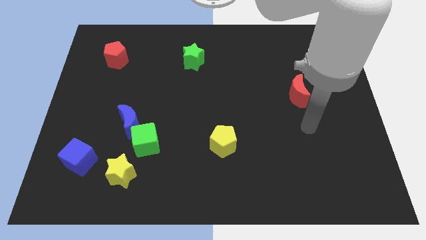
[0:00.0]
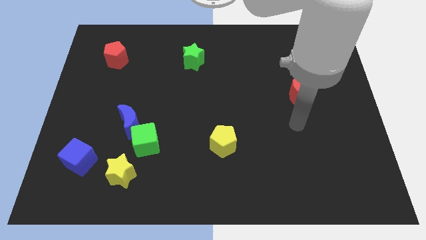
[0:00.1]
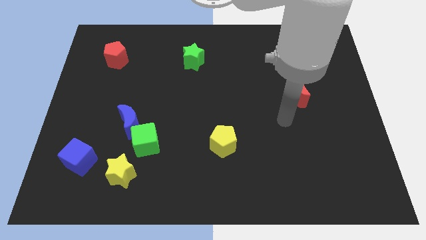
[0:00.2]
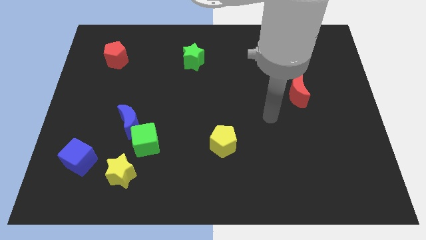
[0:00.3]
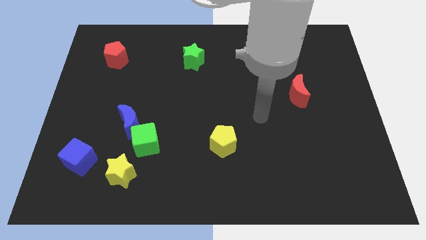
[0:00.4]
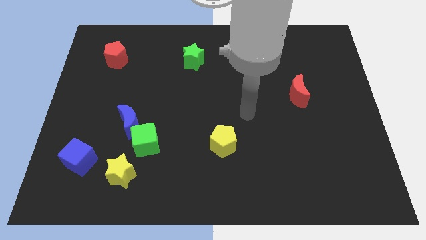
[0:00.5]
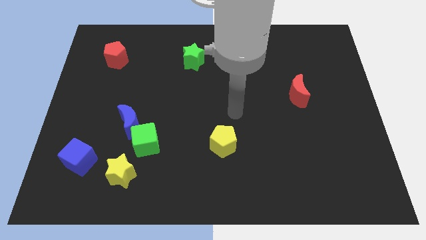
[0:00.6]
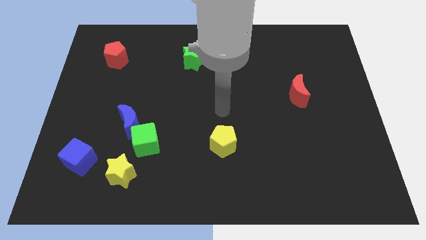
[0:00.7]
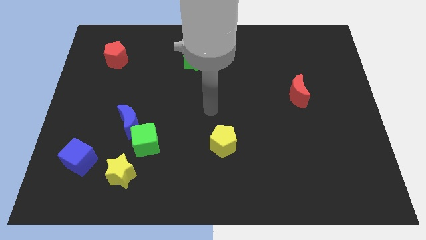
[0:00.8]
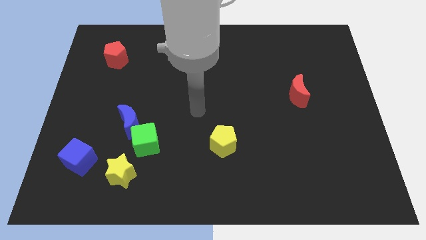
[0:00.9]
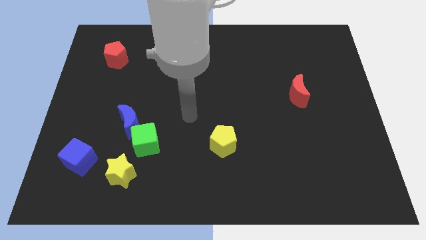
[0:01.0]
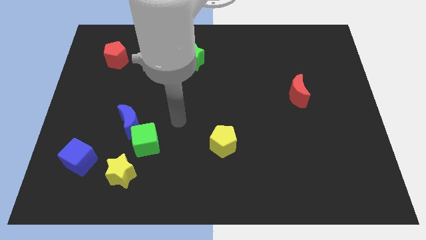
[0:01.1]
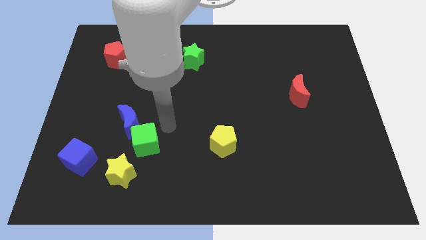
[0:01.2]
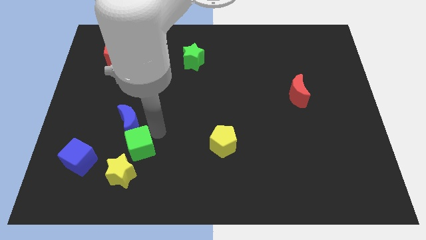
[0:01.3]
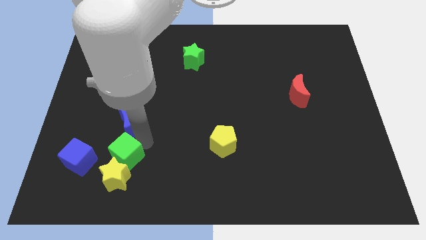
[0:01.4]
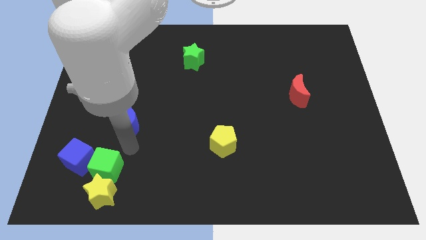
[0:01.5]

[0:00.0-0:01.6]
pull the blue moon apart from the green cube

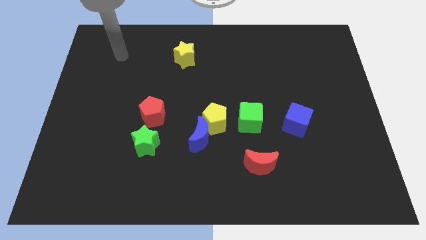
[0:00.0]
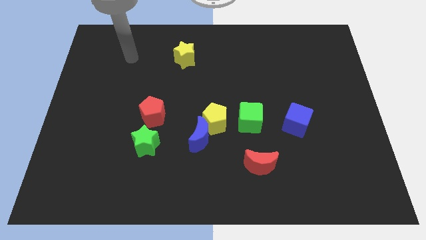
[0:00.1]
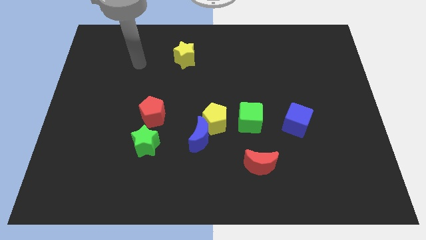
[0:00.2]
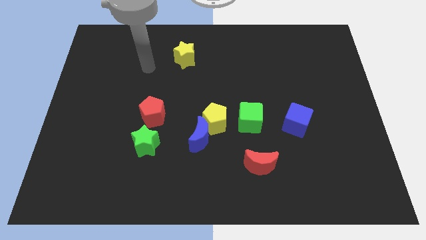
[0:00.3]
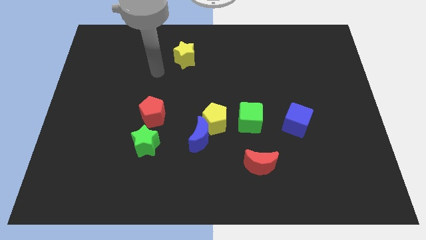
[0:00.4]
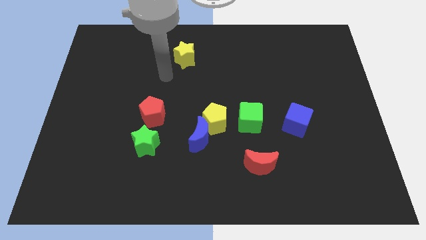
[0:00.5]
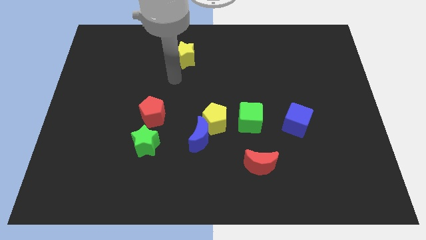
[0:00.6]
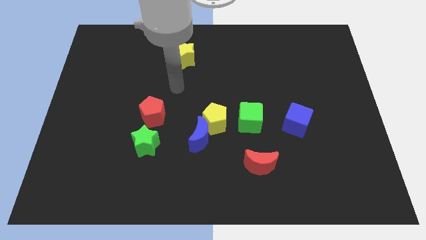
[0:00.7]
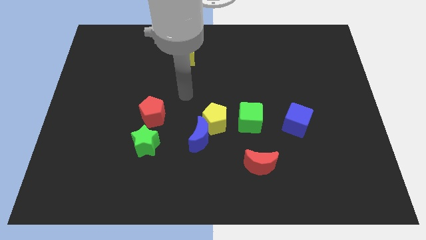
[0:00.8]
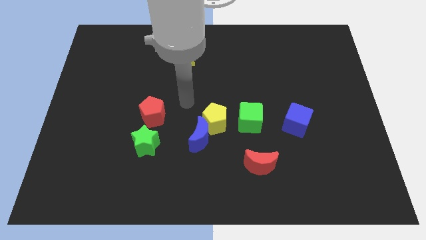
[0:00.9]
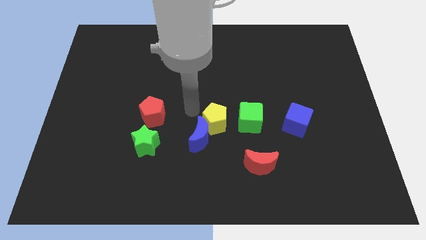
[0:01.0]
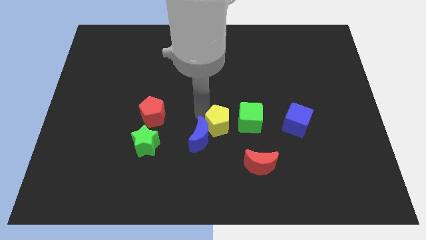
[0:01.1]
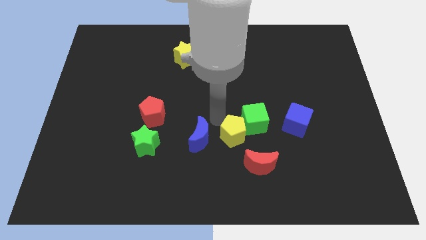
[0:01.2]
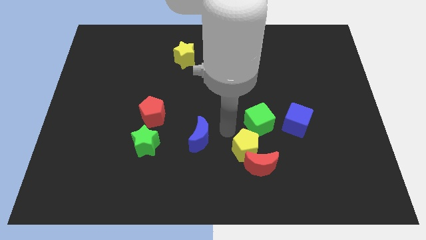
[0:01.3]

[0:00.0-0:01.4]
pull the blue moon apart from the yellow pentagon

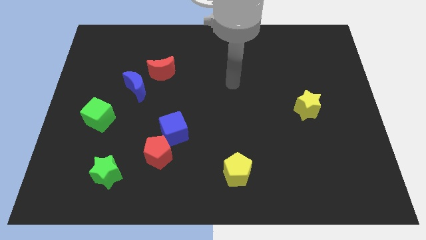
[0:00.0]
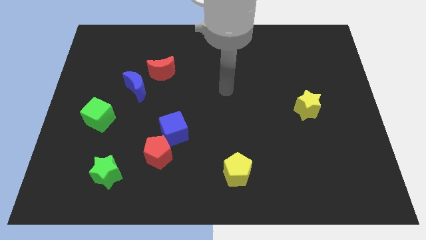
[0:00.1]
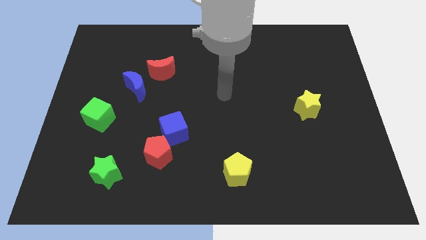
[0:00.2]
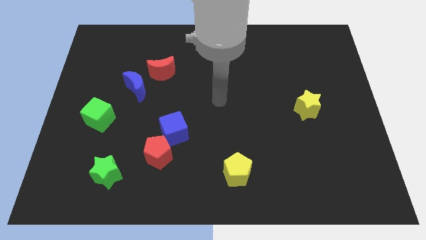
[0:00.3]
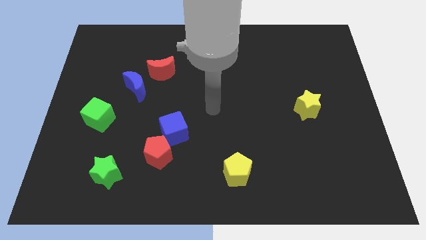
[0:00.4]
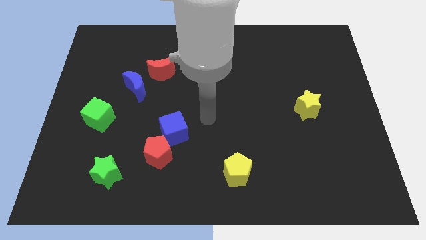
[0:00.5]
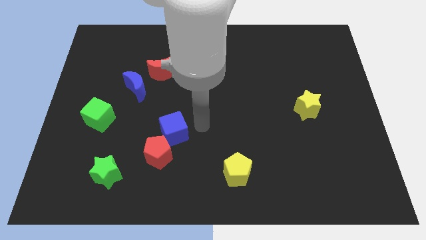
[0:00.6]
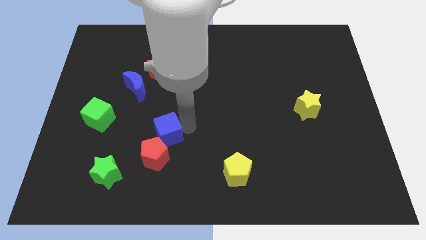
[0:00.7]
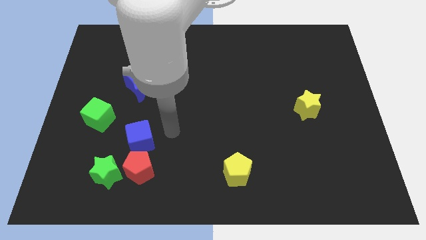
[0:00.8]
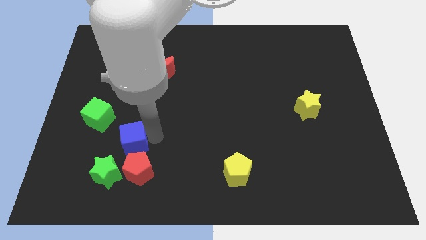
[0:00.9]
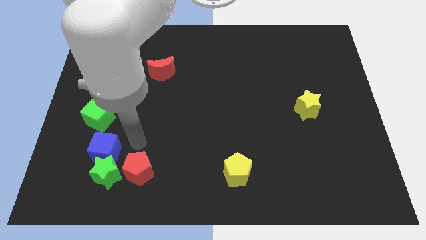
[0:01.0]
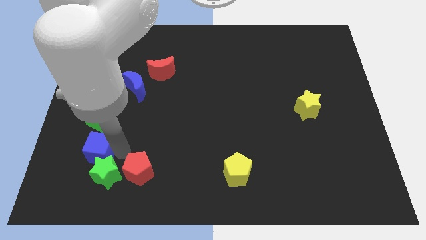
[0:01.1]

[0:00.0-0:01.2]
move the red pentagon away from the blue cube

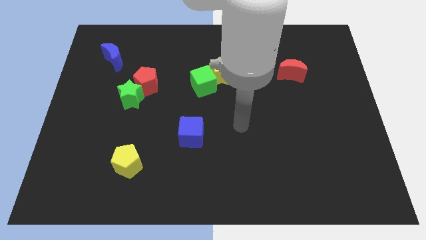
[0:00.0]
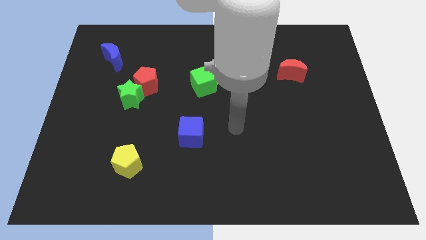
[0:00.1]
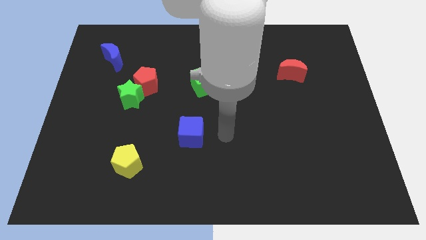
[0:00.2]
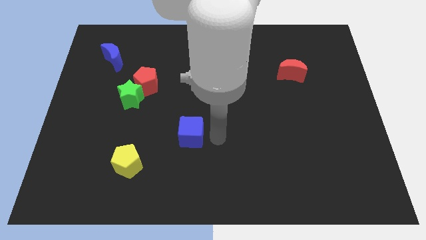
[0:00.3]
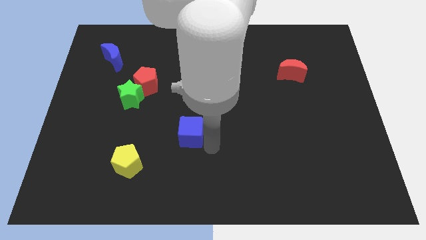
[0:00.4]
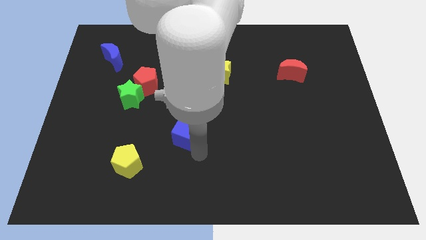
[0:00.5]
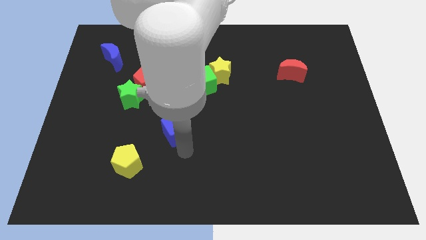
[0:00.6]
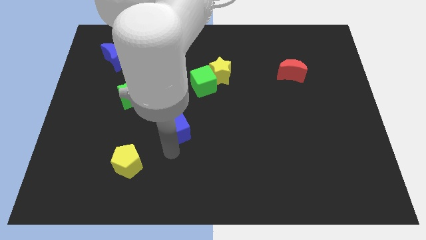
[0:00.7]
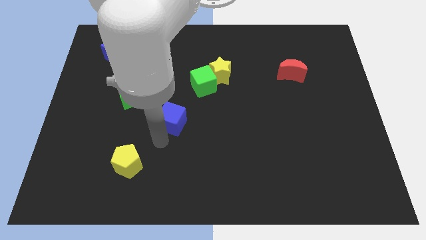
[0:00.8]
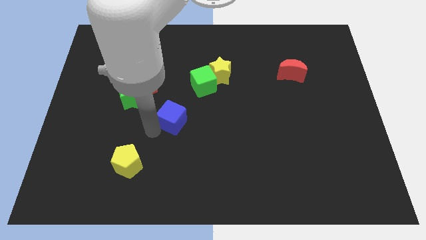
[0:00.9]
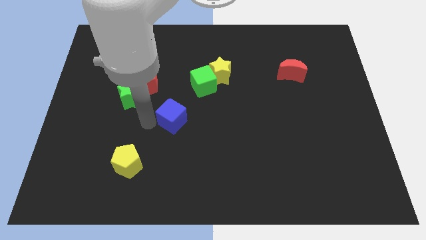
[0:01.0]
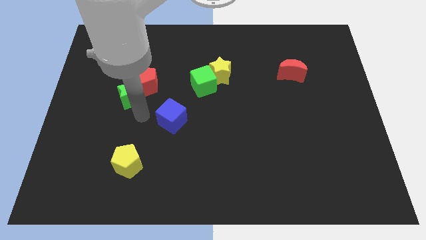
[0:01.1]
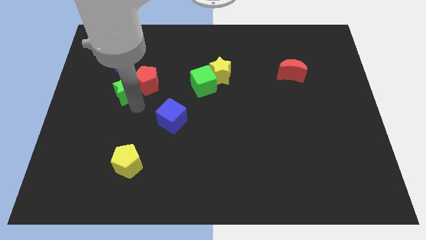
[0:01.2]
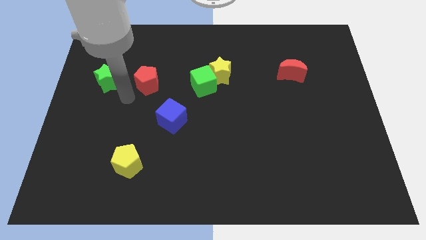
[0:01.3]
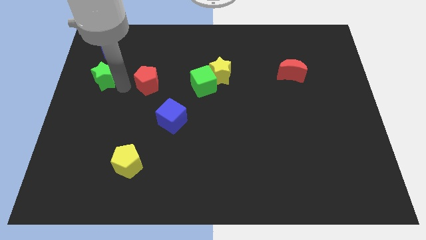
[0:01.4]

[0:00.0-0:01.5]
separate the red pentagon from the green star

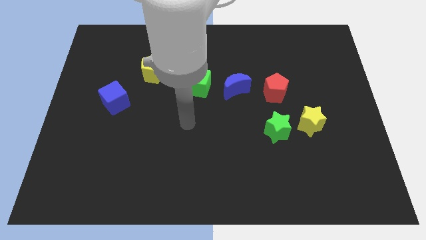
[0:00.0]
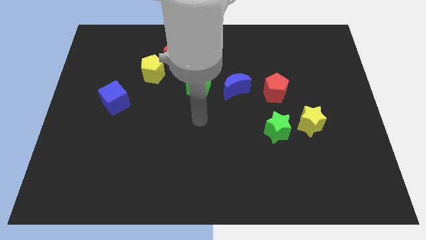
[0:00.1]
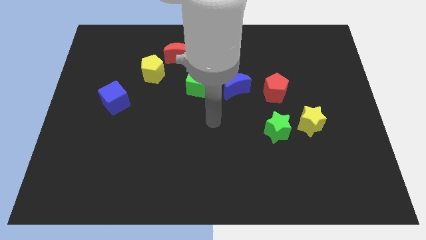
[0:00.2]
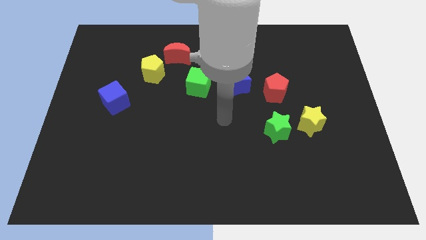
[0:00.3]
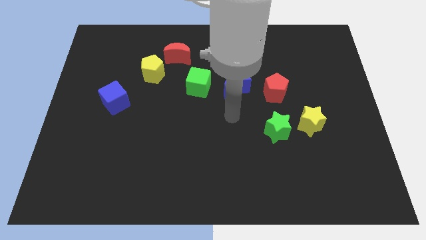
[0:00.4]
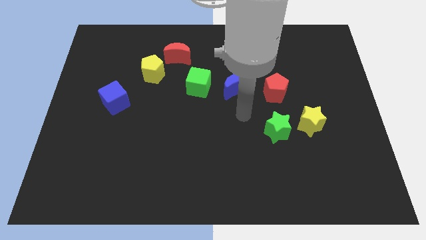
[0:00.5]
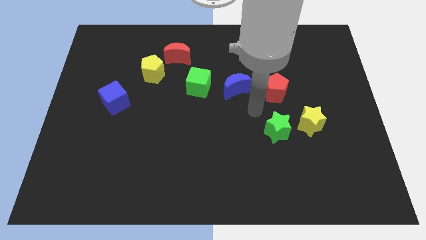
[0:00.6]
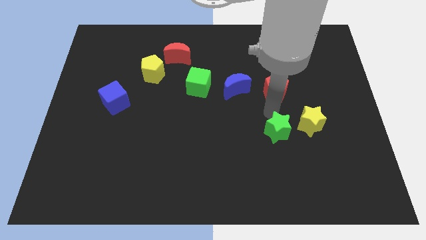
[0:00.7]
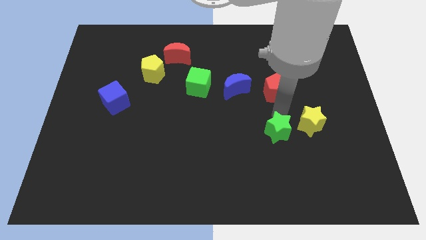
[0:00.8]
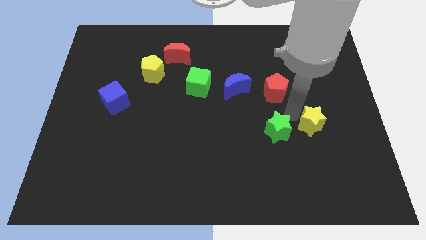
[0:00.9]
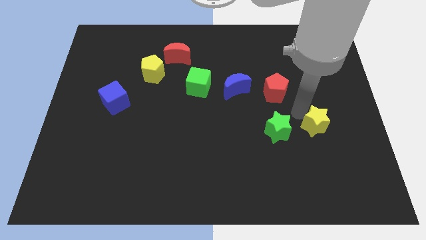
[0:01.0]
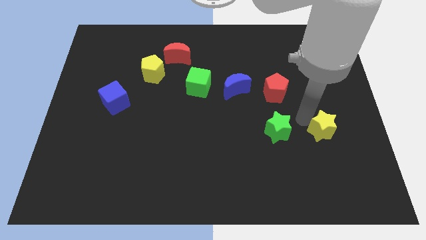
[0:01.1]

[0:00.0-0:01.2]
move the green star away from the yellow star

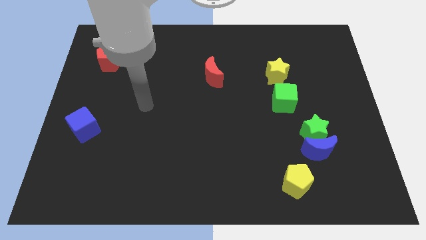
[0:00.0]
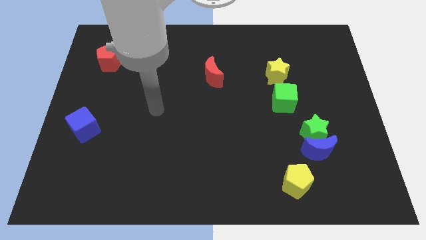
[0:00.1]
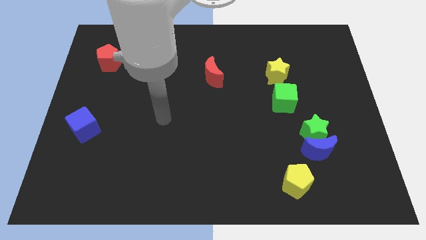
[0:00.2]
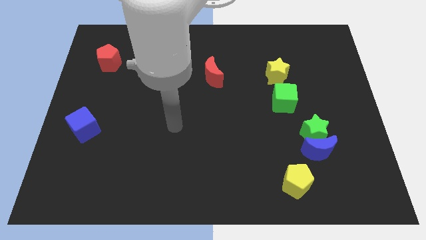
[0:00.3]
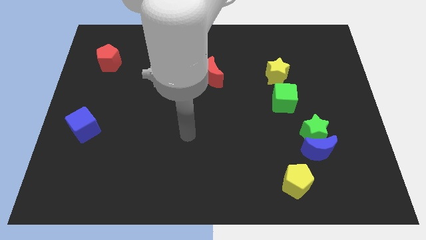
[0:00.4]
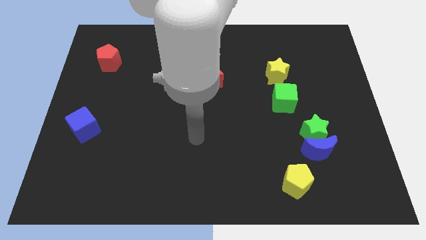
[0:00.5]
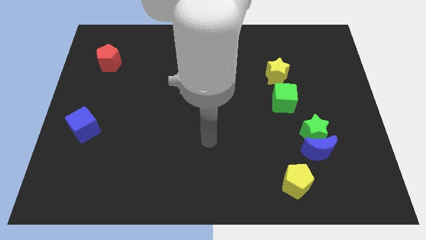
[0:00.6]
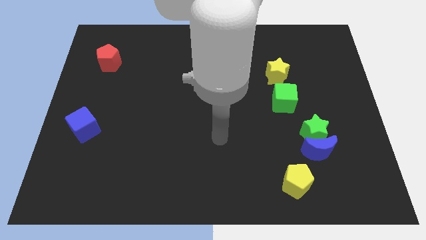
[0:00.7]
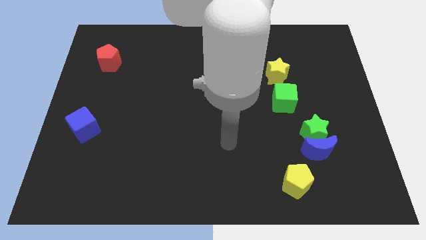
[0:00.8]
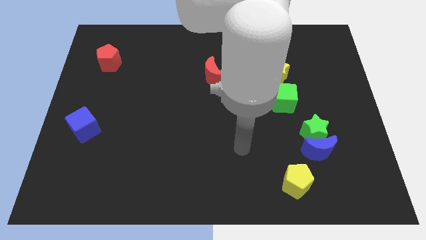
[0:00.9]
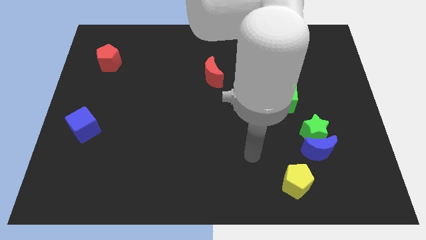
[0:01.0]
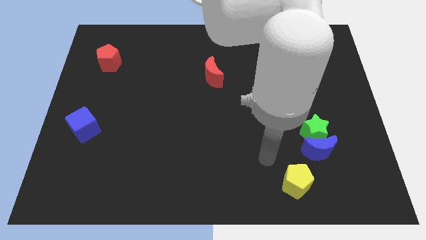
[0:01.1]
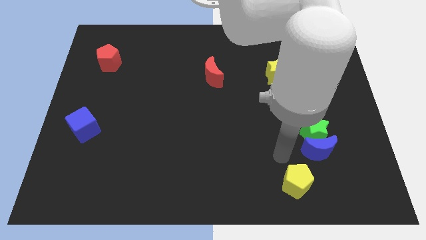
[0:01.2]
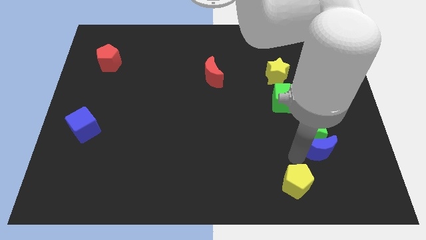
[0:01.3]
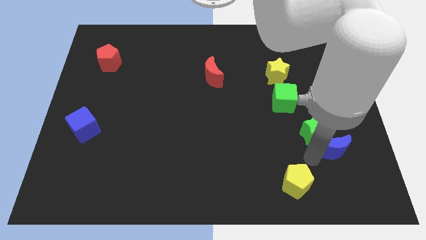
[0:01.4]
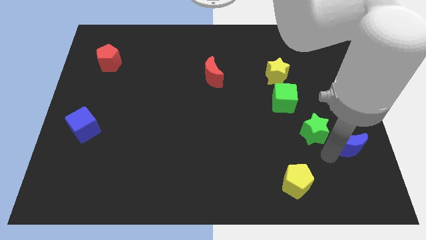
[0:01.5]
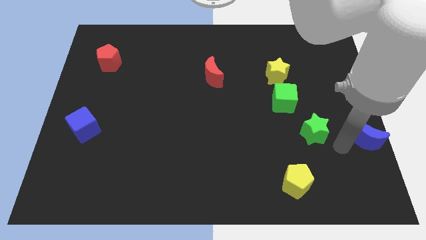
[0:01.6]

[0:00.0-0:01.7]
pull the green star apart from the blue moon

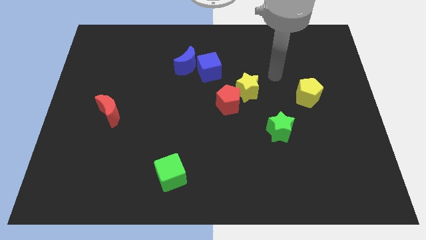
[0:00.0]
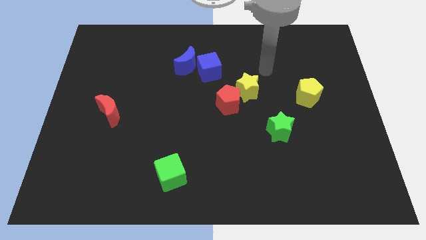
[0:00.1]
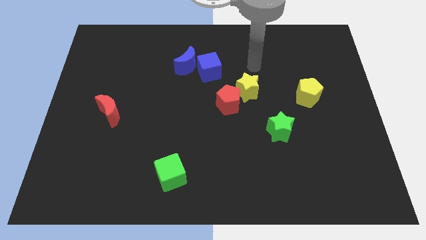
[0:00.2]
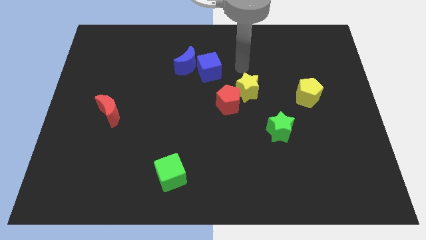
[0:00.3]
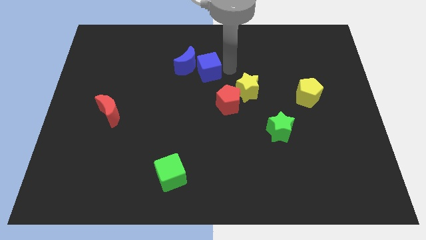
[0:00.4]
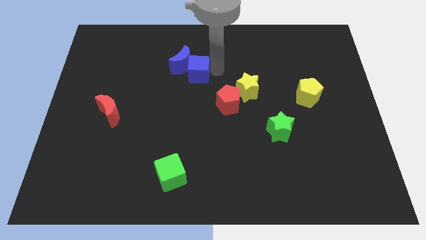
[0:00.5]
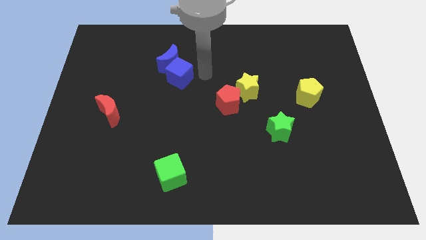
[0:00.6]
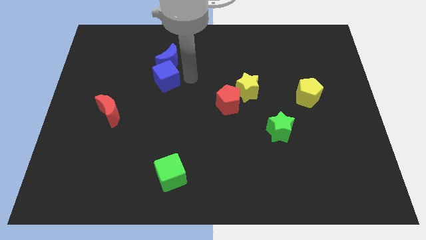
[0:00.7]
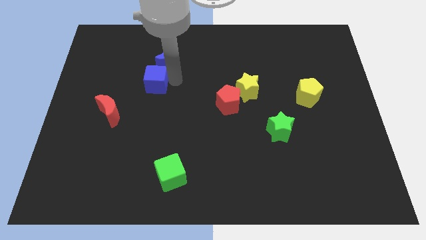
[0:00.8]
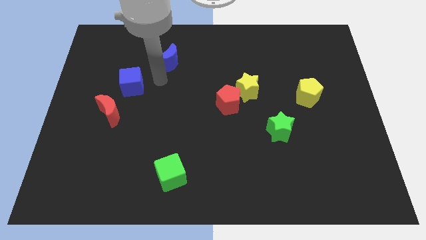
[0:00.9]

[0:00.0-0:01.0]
separate the blue moon from the blue cube
